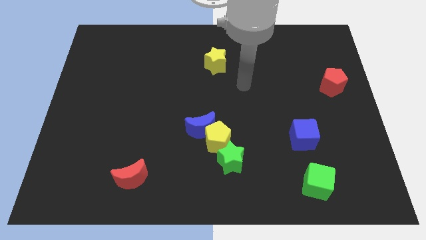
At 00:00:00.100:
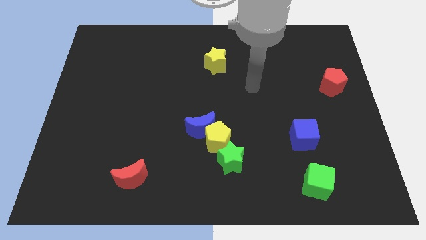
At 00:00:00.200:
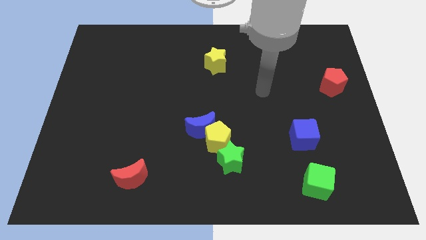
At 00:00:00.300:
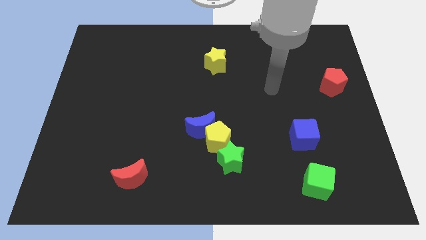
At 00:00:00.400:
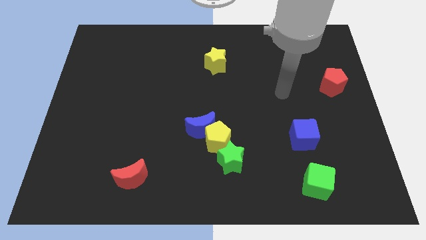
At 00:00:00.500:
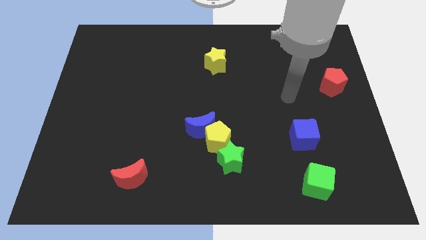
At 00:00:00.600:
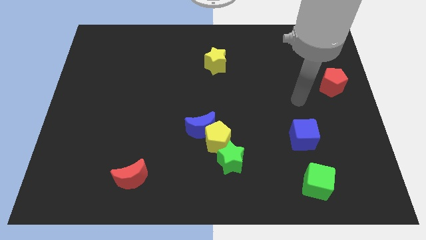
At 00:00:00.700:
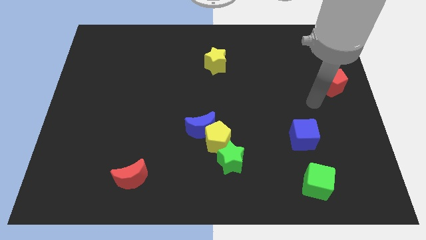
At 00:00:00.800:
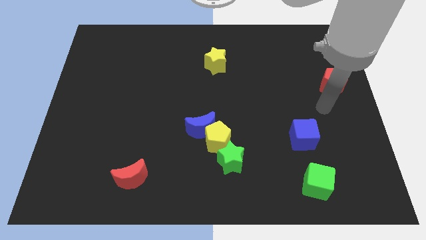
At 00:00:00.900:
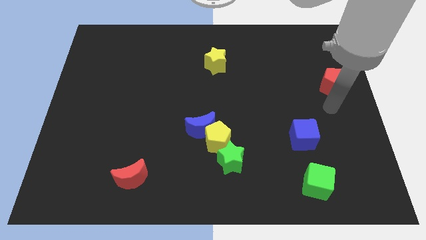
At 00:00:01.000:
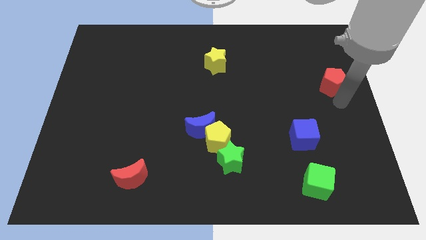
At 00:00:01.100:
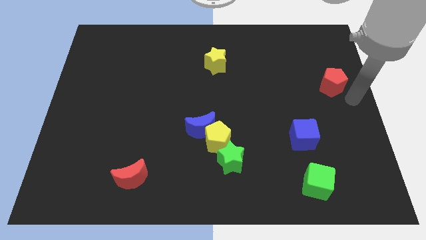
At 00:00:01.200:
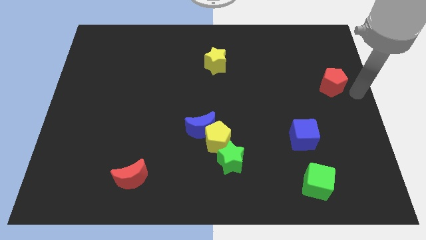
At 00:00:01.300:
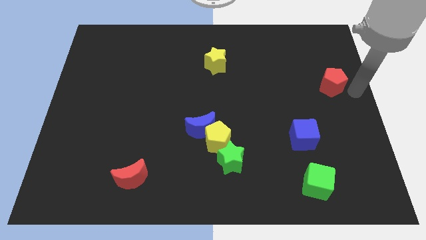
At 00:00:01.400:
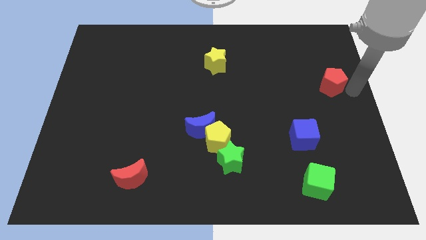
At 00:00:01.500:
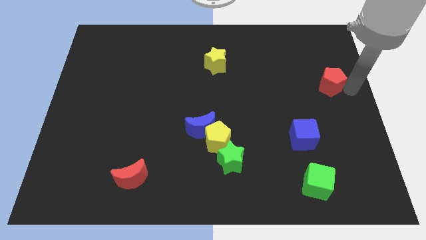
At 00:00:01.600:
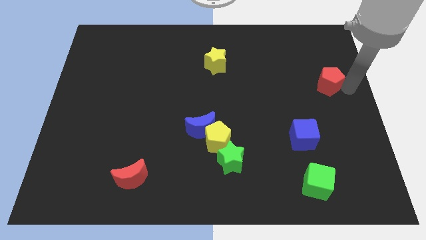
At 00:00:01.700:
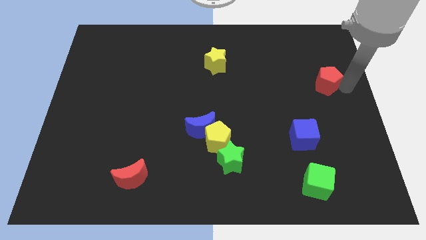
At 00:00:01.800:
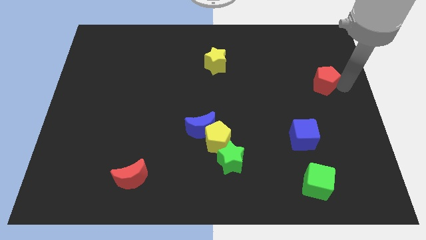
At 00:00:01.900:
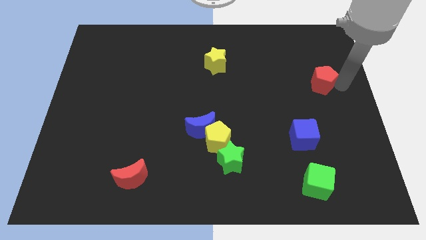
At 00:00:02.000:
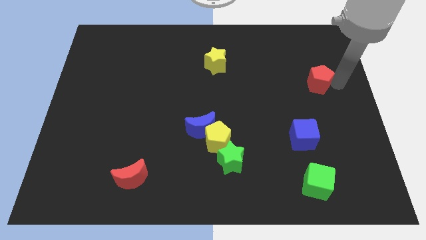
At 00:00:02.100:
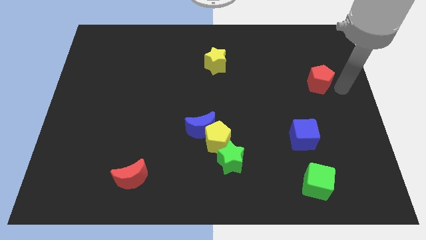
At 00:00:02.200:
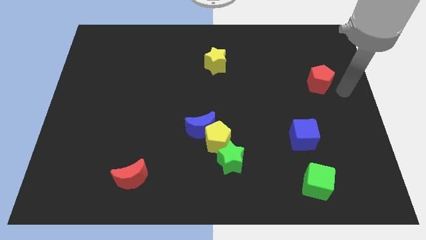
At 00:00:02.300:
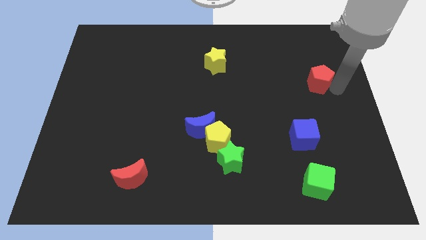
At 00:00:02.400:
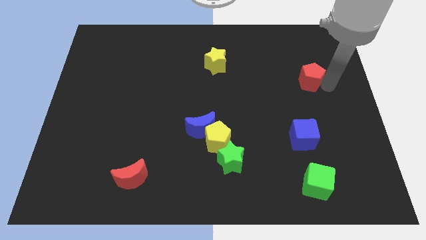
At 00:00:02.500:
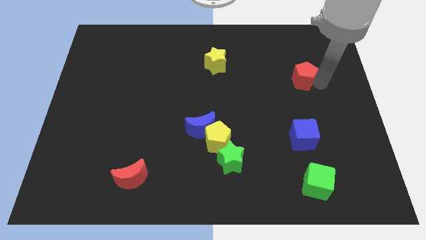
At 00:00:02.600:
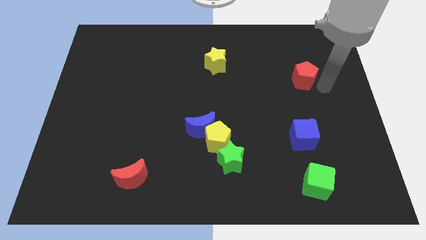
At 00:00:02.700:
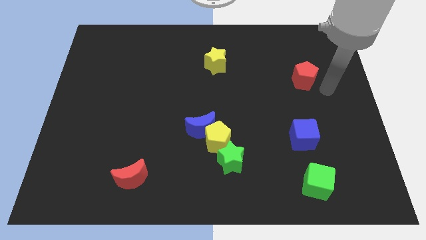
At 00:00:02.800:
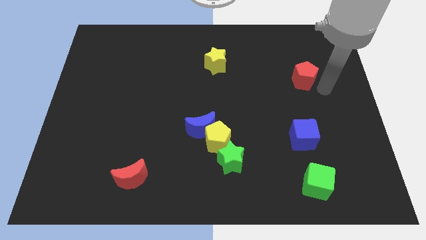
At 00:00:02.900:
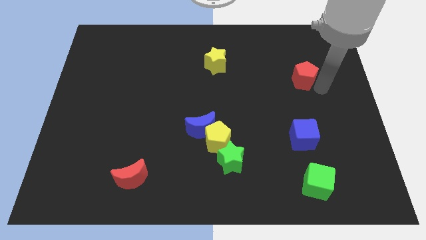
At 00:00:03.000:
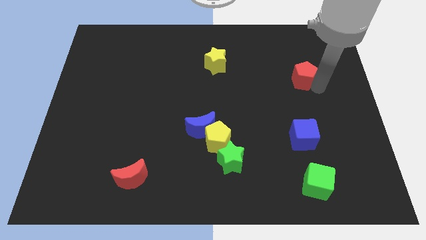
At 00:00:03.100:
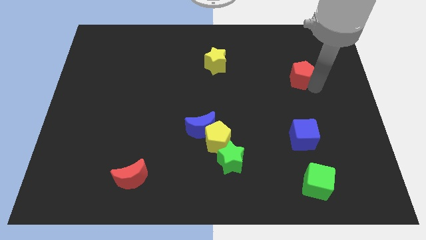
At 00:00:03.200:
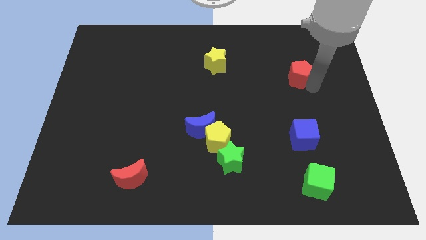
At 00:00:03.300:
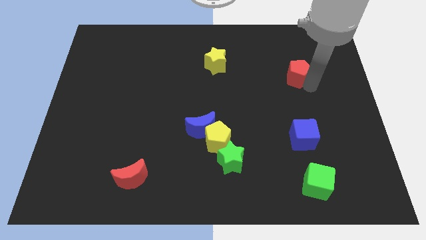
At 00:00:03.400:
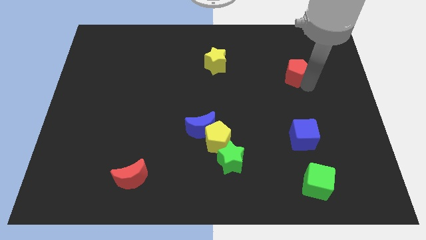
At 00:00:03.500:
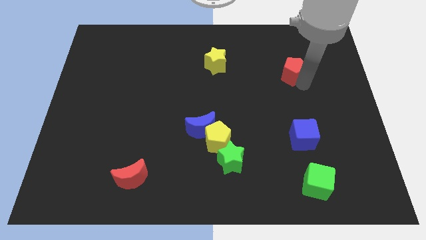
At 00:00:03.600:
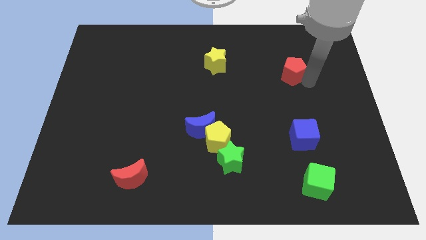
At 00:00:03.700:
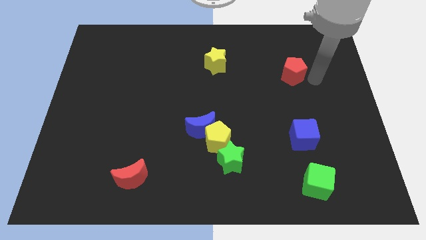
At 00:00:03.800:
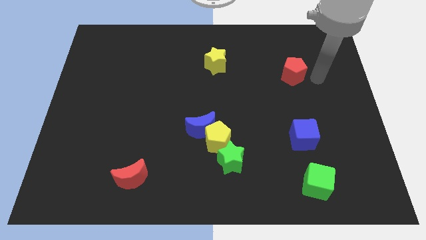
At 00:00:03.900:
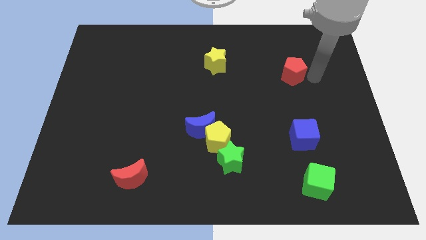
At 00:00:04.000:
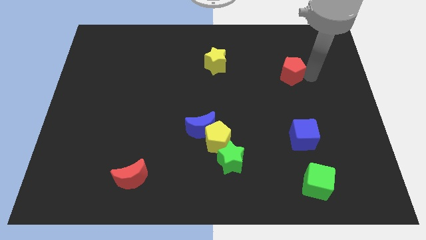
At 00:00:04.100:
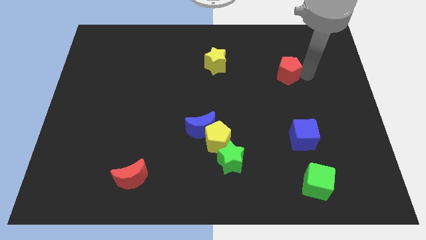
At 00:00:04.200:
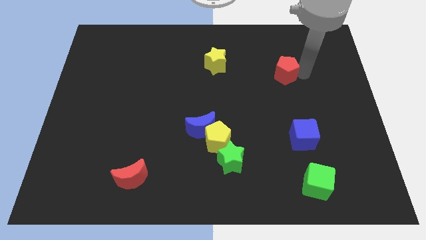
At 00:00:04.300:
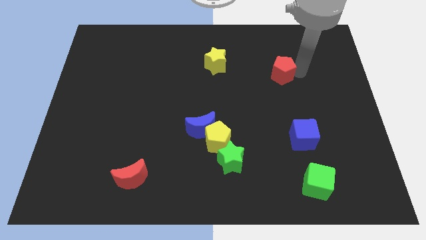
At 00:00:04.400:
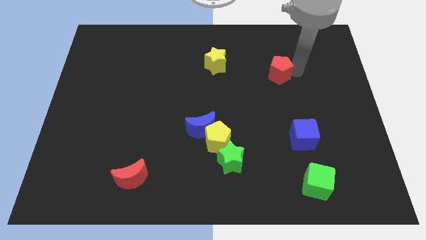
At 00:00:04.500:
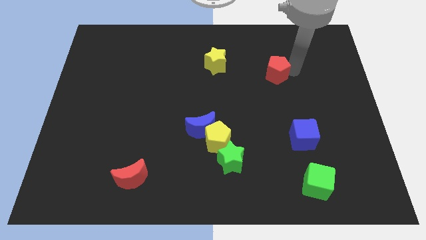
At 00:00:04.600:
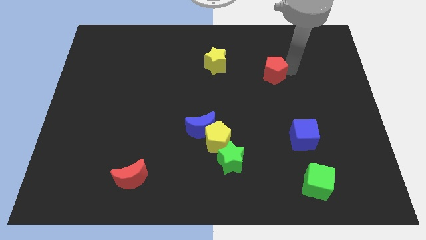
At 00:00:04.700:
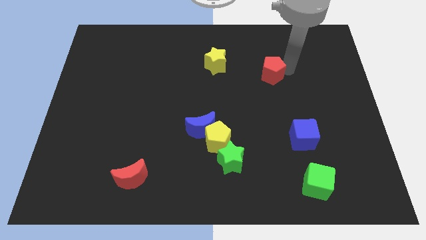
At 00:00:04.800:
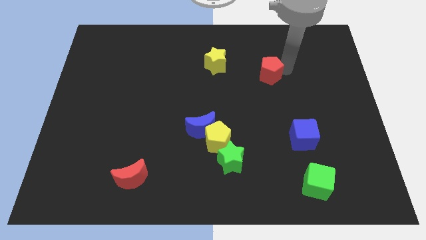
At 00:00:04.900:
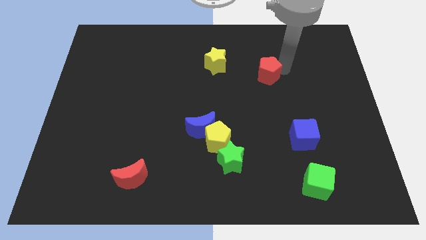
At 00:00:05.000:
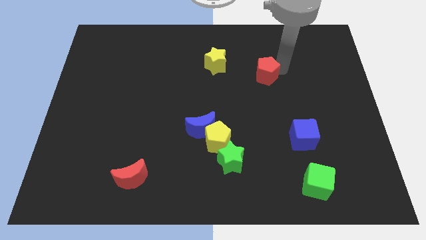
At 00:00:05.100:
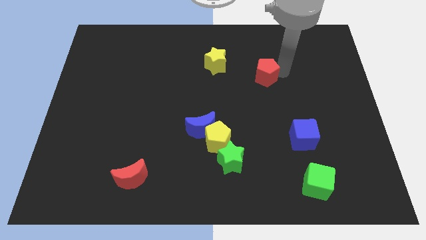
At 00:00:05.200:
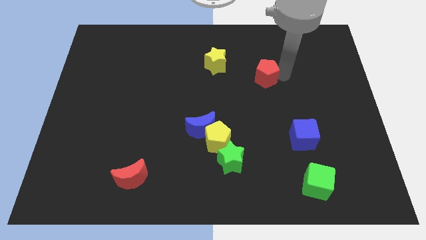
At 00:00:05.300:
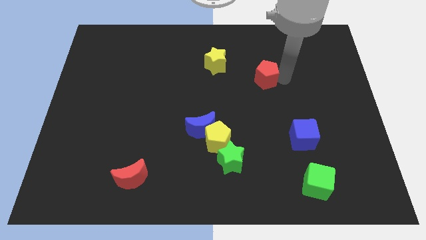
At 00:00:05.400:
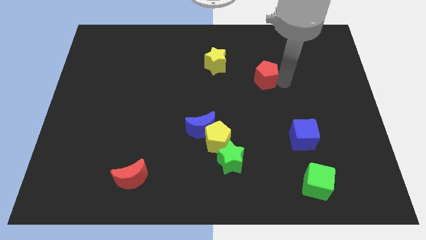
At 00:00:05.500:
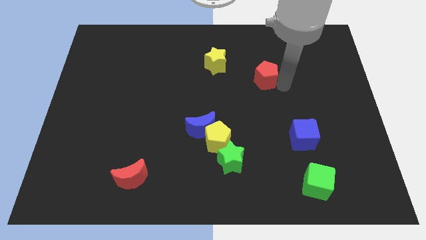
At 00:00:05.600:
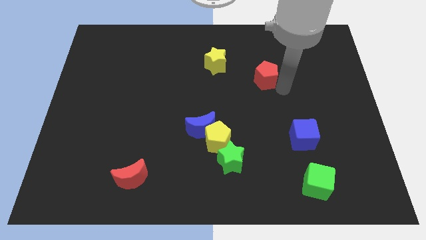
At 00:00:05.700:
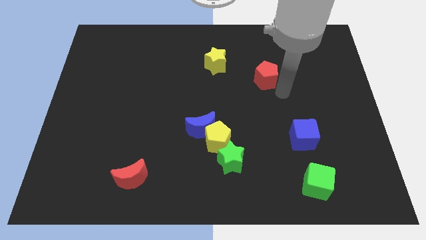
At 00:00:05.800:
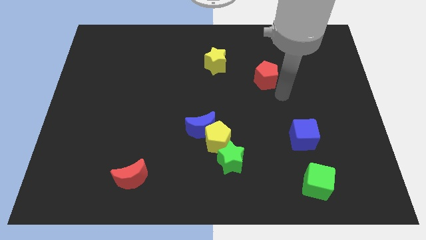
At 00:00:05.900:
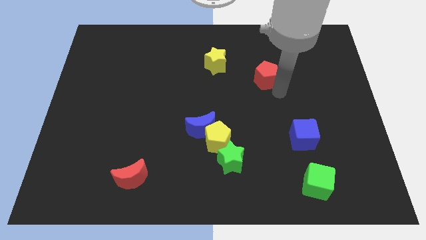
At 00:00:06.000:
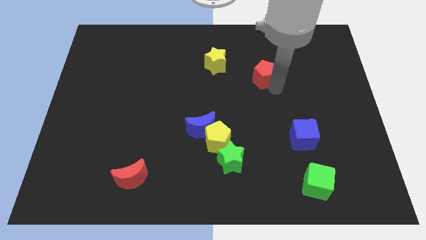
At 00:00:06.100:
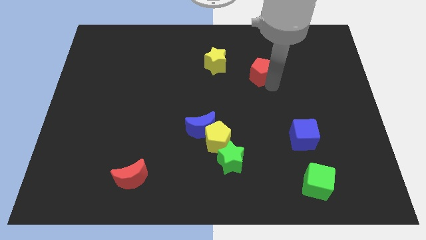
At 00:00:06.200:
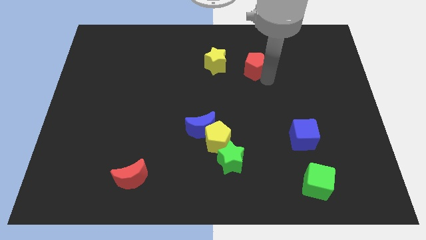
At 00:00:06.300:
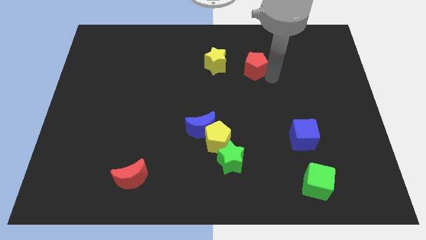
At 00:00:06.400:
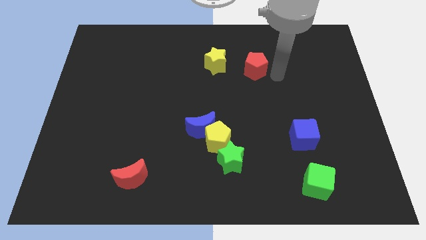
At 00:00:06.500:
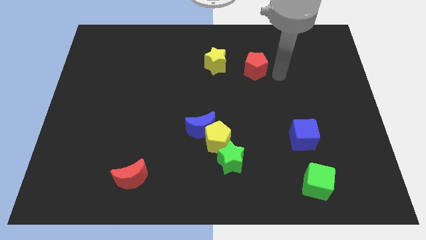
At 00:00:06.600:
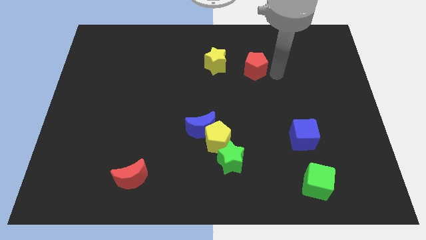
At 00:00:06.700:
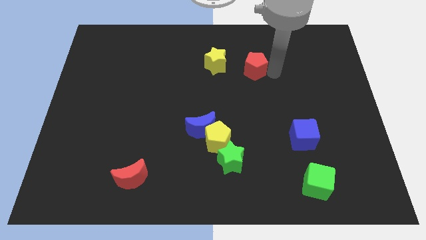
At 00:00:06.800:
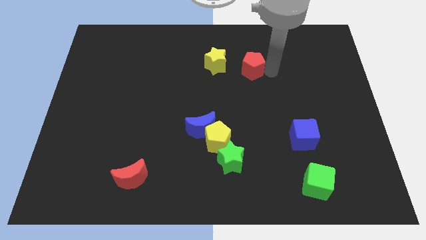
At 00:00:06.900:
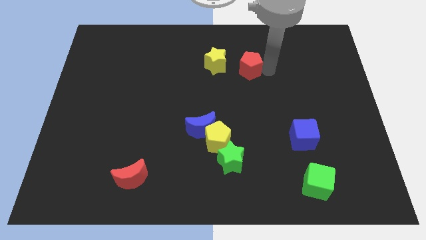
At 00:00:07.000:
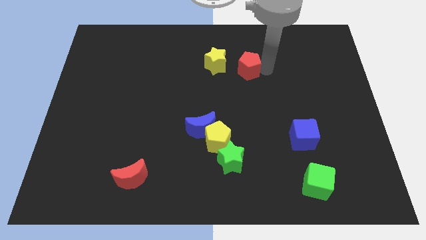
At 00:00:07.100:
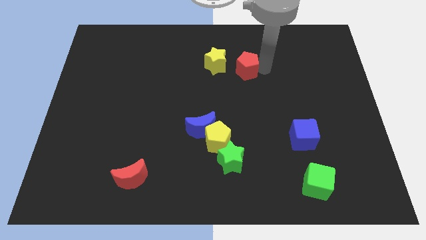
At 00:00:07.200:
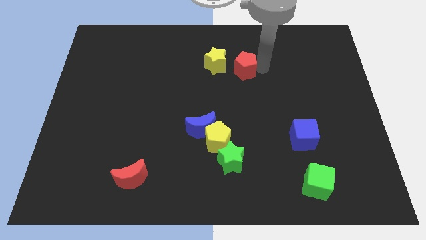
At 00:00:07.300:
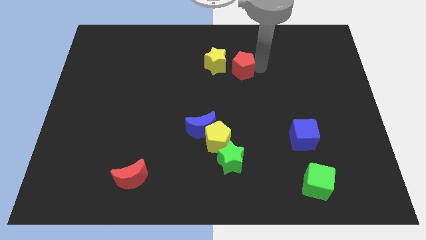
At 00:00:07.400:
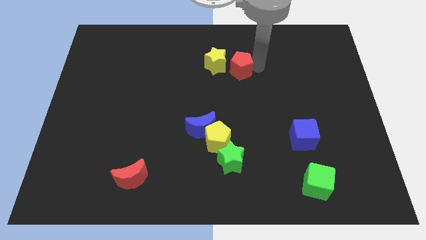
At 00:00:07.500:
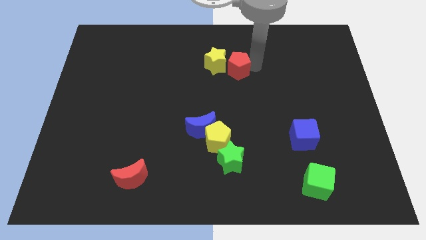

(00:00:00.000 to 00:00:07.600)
put the red pentagon to the yellow star
